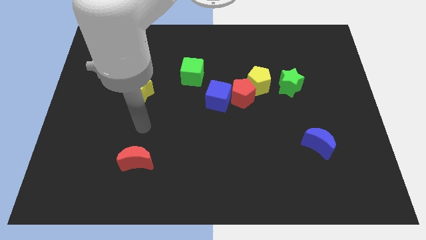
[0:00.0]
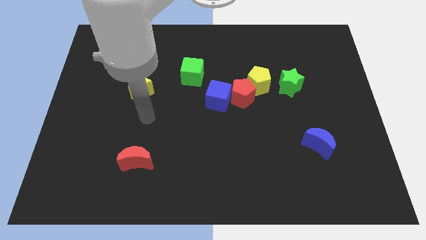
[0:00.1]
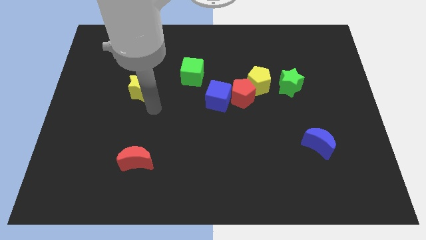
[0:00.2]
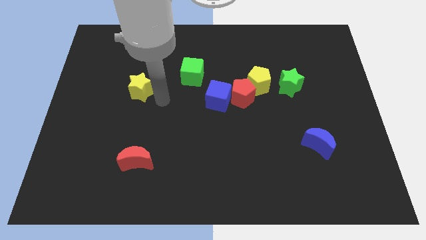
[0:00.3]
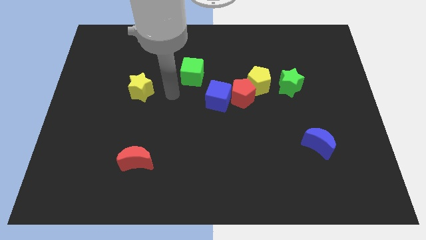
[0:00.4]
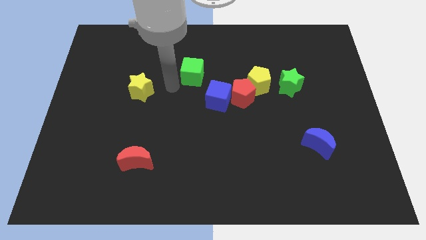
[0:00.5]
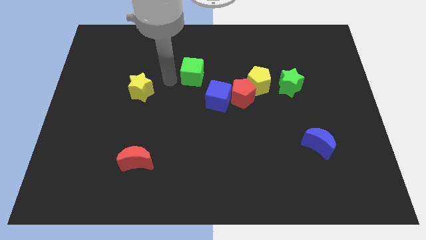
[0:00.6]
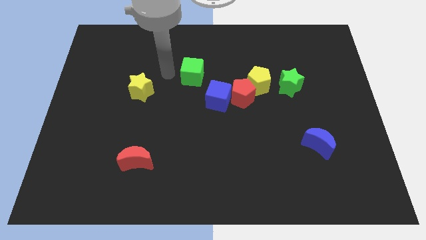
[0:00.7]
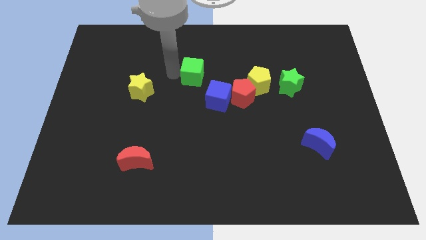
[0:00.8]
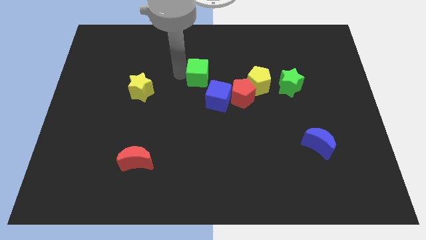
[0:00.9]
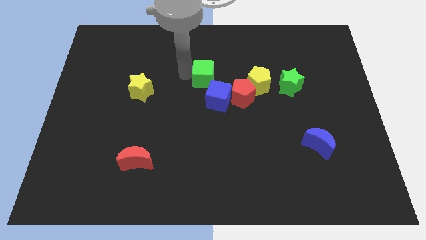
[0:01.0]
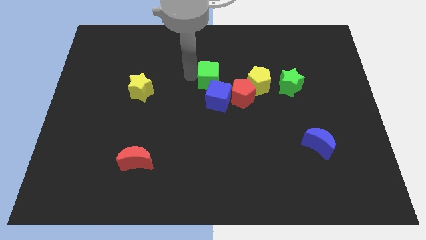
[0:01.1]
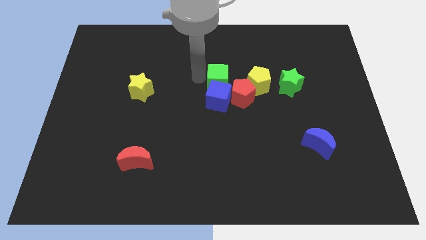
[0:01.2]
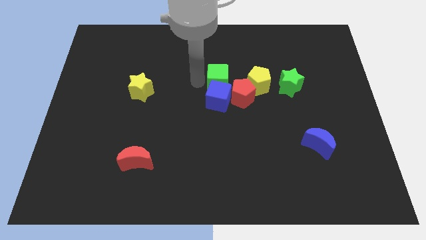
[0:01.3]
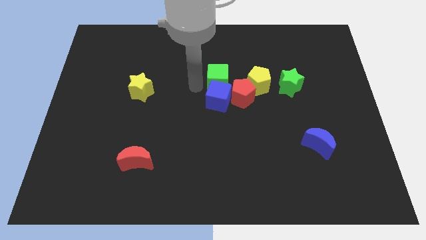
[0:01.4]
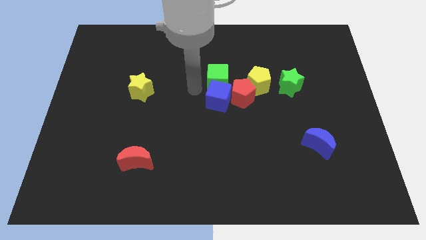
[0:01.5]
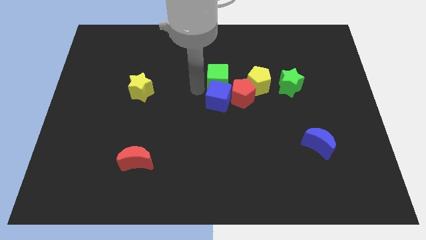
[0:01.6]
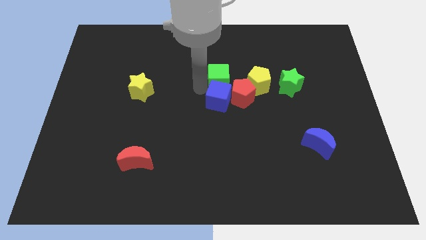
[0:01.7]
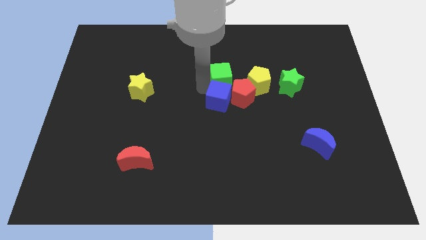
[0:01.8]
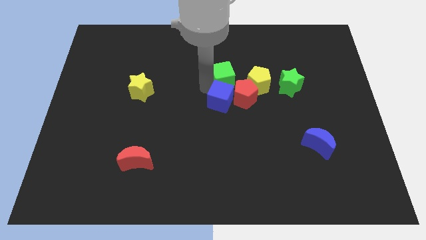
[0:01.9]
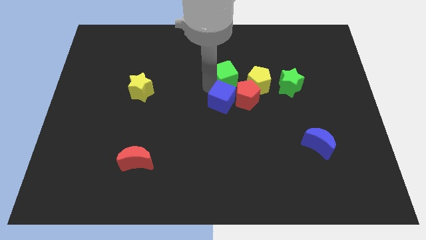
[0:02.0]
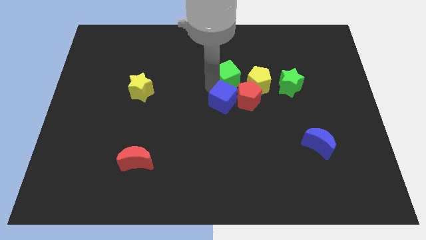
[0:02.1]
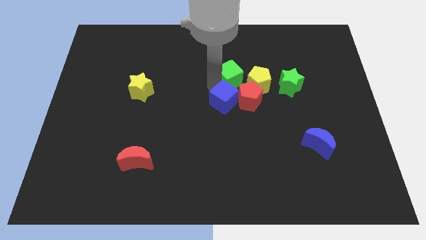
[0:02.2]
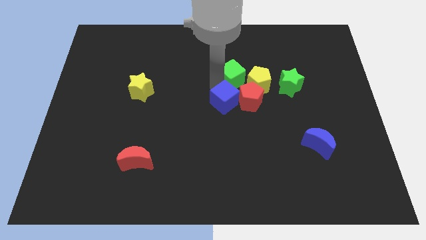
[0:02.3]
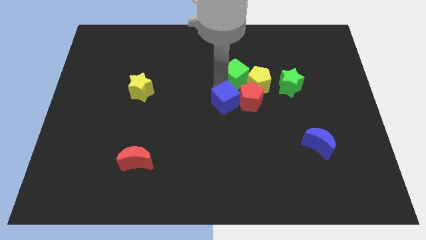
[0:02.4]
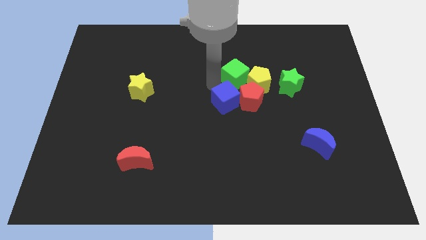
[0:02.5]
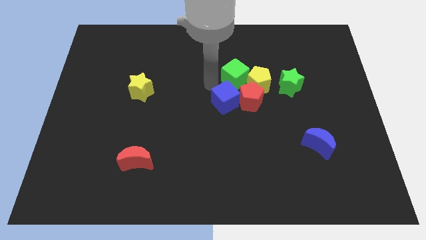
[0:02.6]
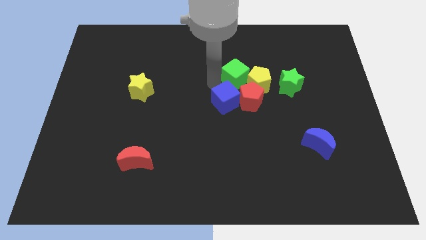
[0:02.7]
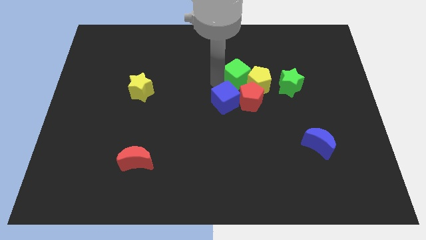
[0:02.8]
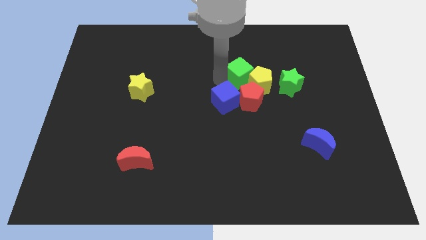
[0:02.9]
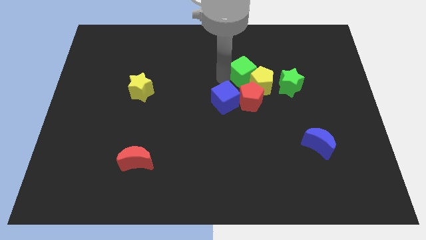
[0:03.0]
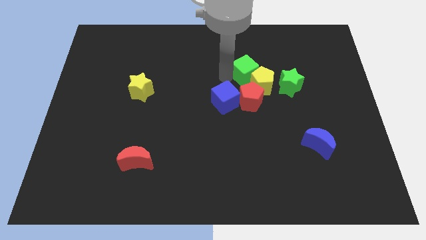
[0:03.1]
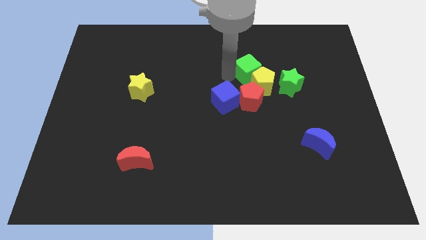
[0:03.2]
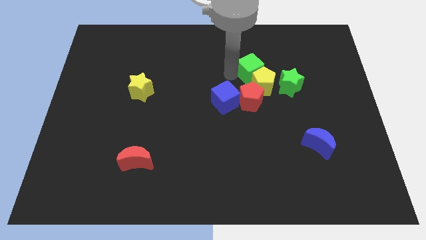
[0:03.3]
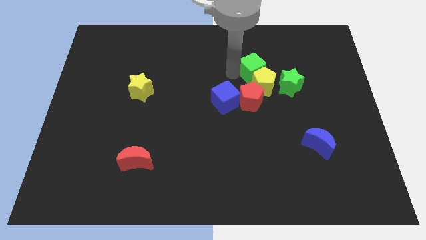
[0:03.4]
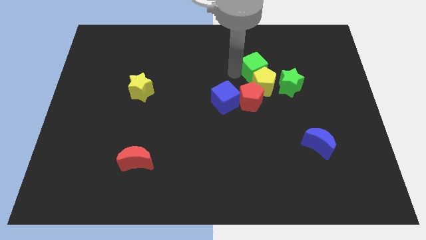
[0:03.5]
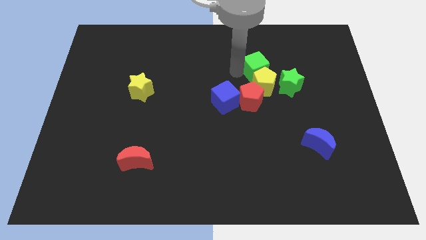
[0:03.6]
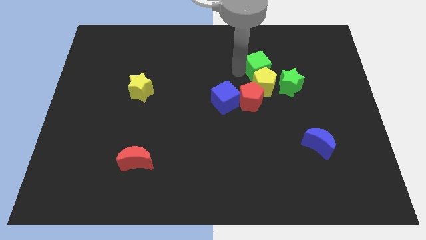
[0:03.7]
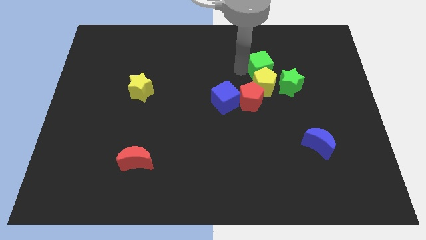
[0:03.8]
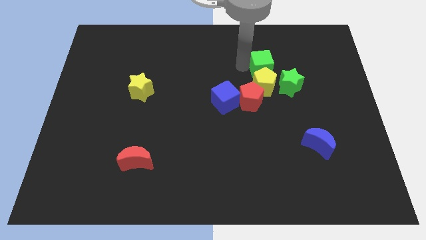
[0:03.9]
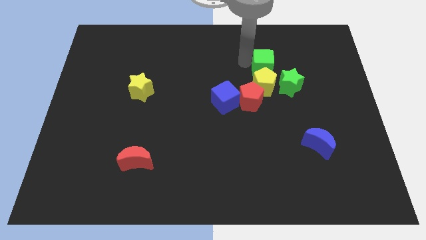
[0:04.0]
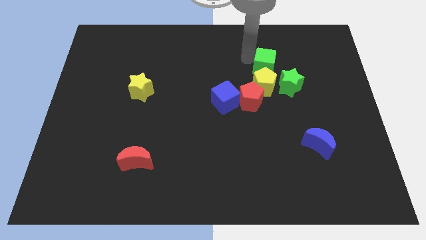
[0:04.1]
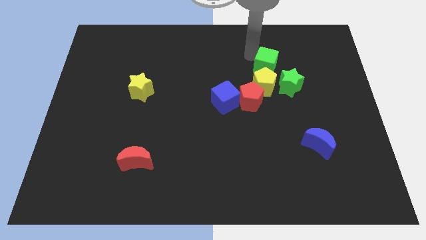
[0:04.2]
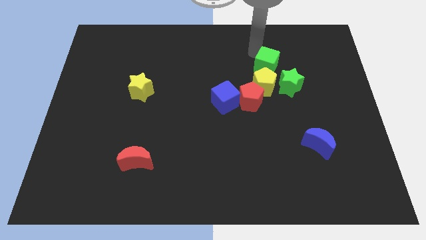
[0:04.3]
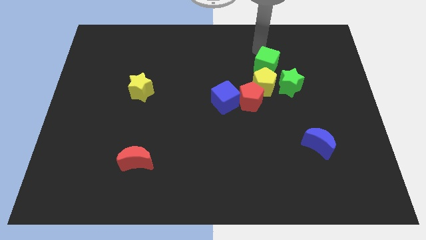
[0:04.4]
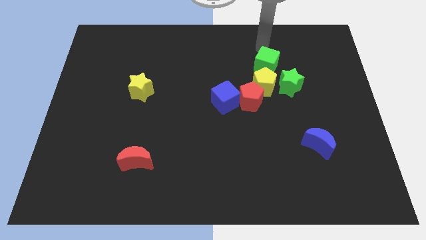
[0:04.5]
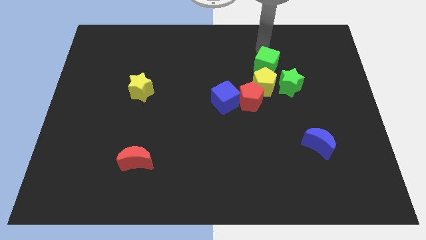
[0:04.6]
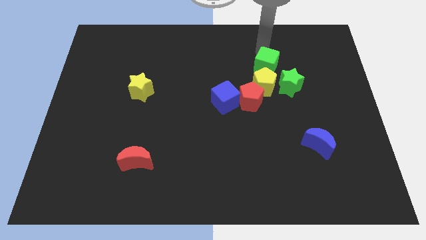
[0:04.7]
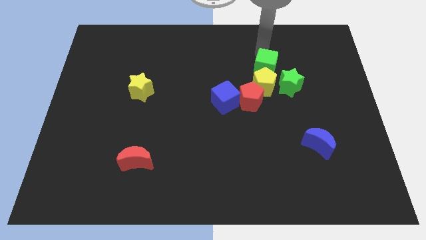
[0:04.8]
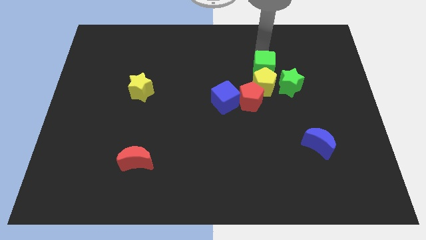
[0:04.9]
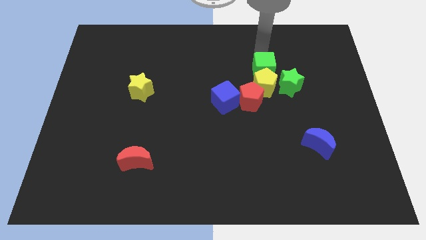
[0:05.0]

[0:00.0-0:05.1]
put the green cube to the top right of the red pentagon

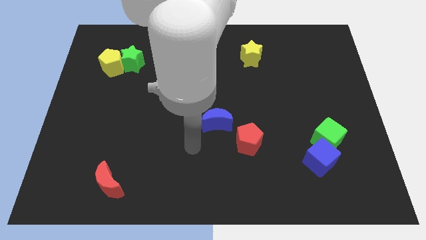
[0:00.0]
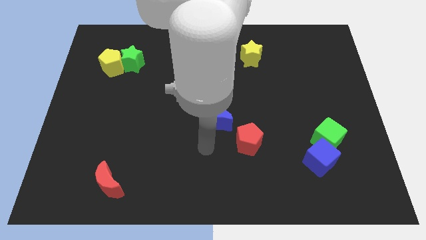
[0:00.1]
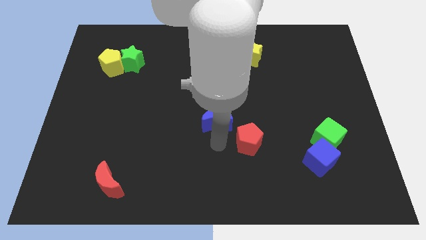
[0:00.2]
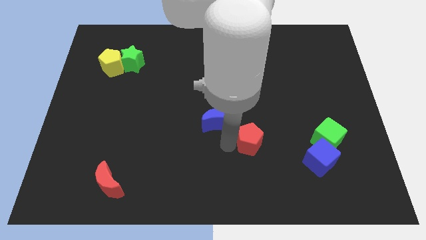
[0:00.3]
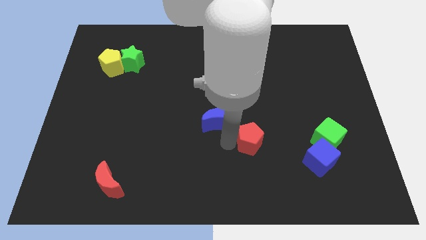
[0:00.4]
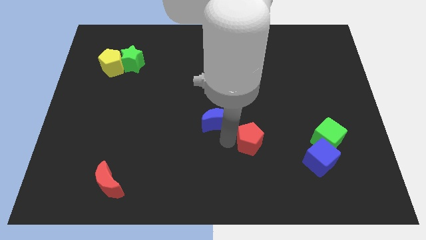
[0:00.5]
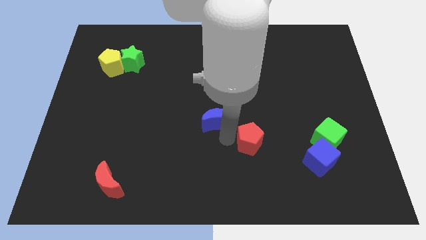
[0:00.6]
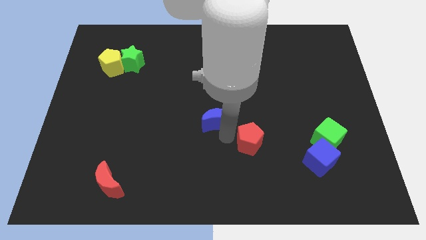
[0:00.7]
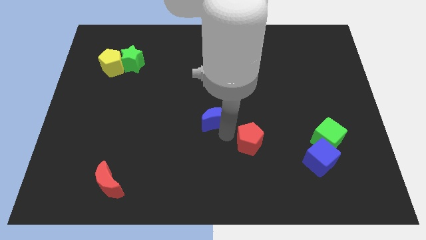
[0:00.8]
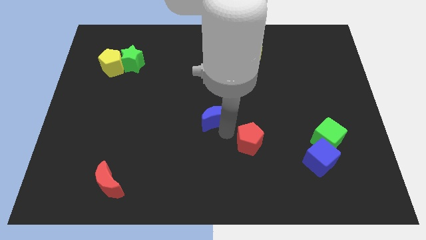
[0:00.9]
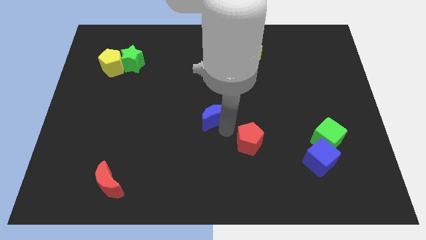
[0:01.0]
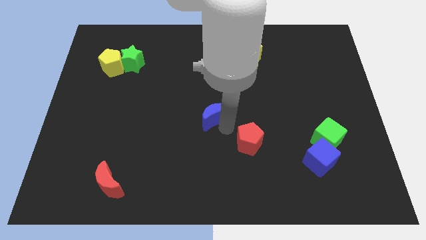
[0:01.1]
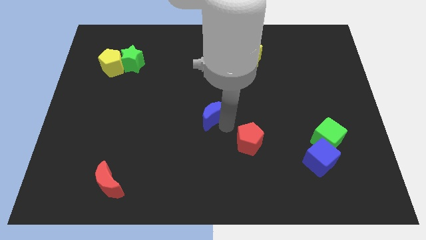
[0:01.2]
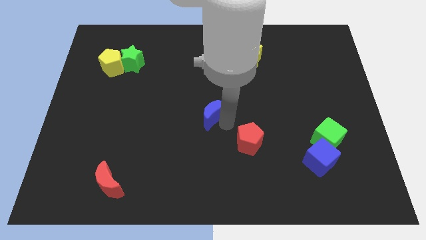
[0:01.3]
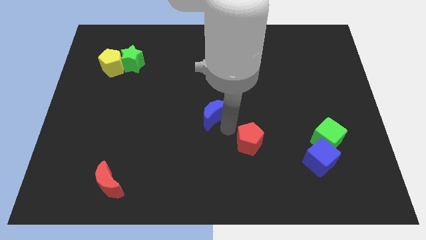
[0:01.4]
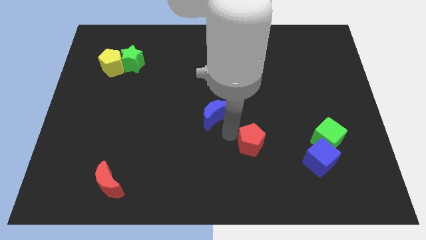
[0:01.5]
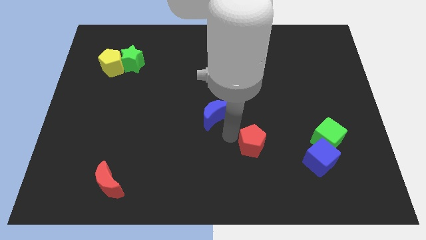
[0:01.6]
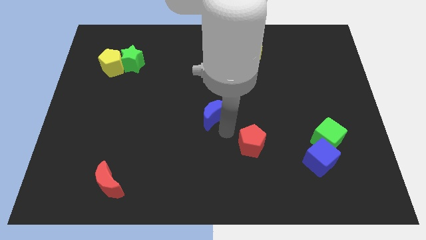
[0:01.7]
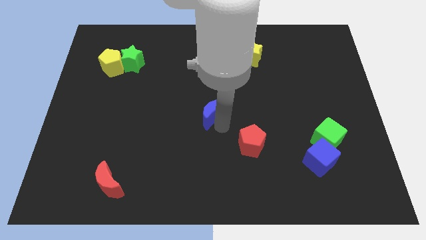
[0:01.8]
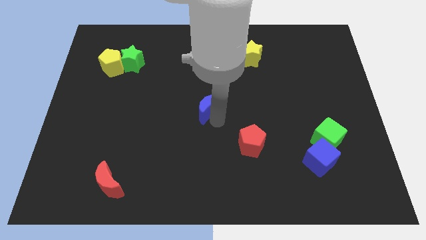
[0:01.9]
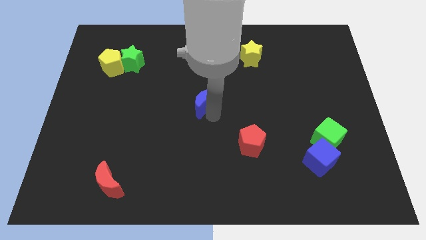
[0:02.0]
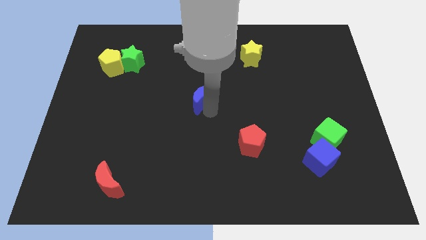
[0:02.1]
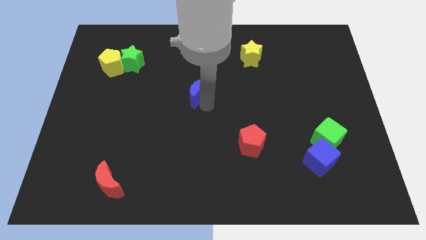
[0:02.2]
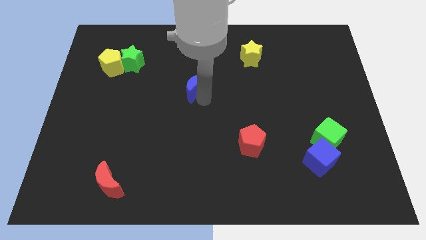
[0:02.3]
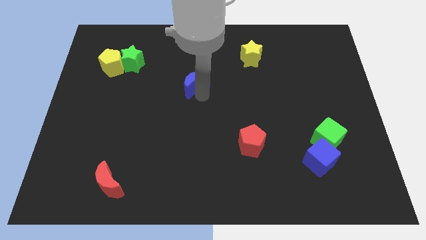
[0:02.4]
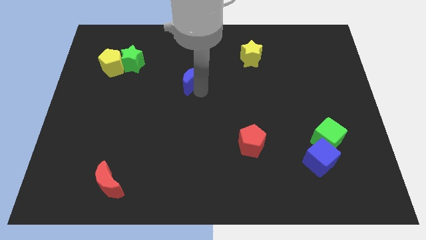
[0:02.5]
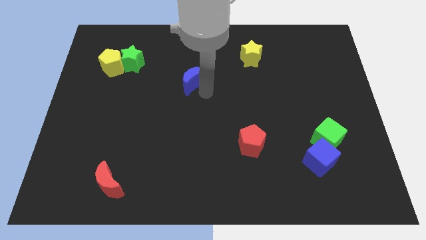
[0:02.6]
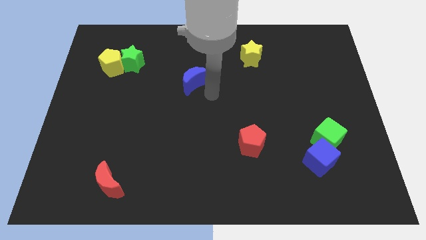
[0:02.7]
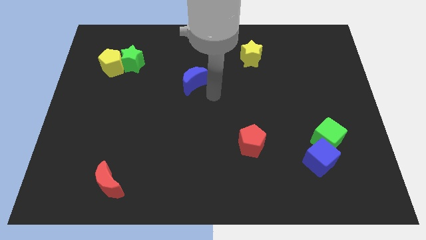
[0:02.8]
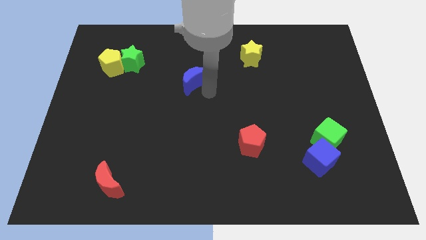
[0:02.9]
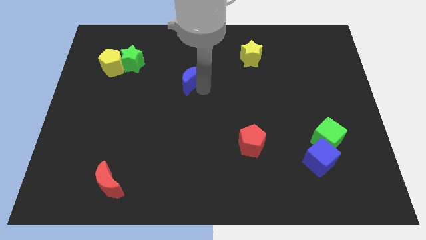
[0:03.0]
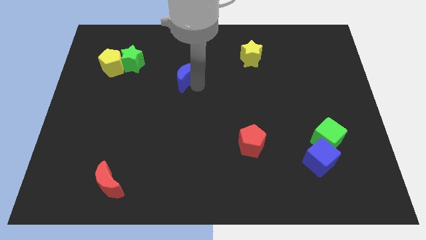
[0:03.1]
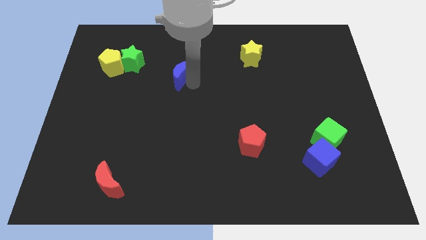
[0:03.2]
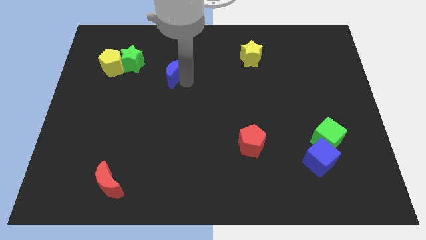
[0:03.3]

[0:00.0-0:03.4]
move the blue moon to the right side of the green star
